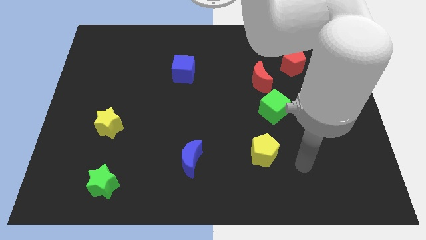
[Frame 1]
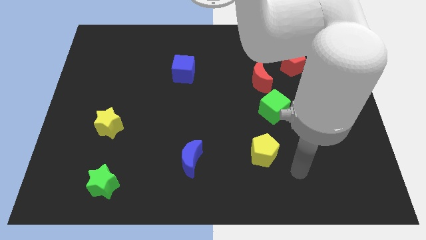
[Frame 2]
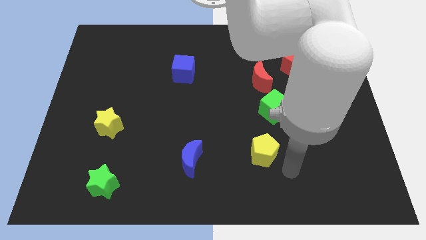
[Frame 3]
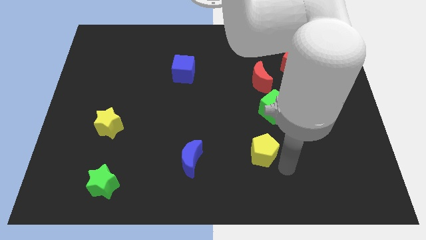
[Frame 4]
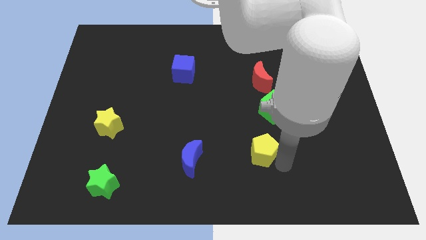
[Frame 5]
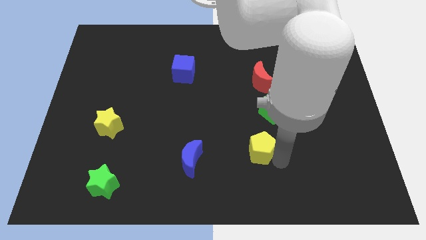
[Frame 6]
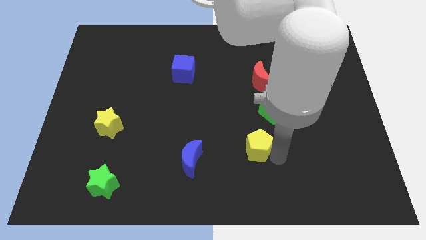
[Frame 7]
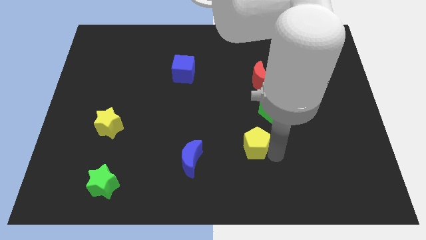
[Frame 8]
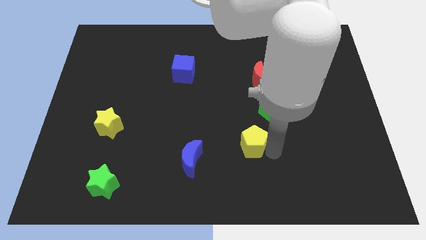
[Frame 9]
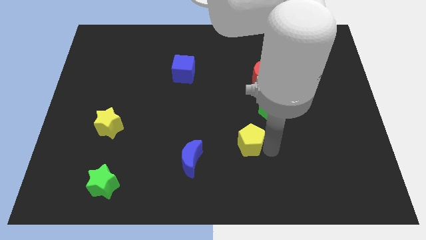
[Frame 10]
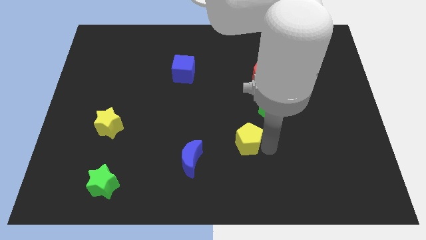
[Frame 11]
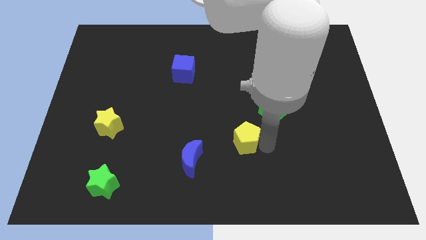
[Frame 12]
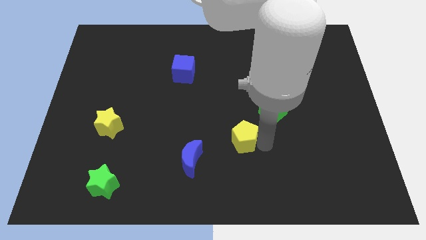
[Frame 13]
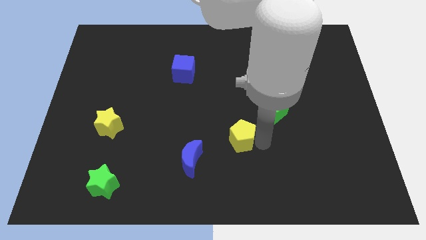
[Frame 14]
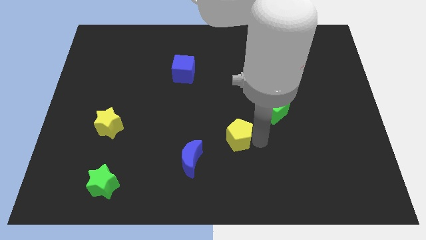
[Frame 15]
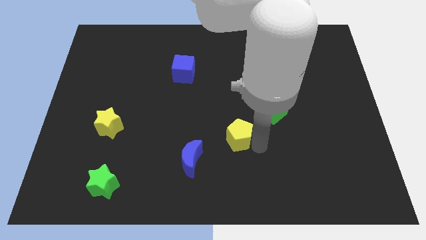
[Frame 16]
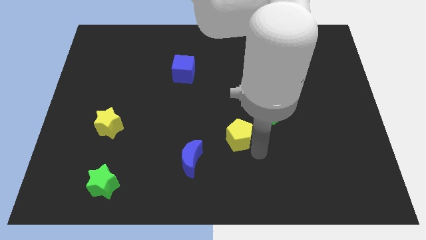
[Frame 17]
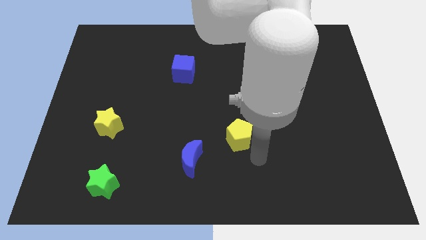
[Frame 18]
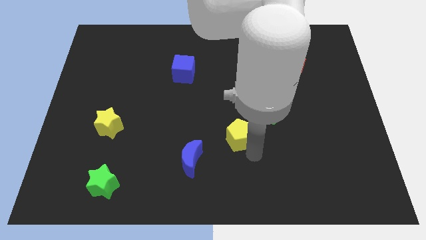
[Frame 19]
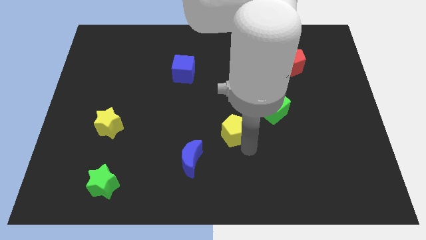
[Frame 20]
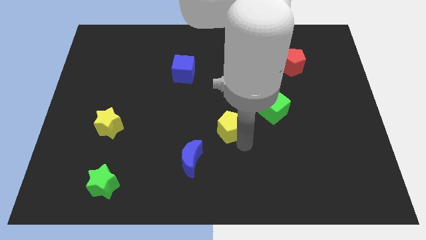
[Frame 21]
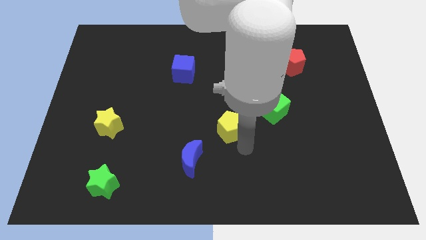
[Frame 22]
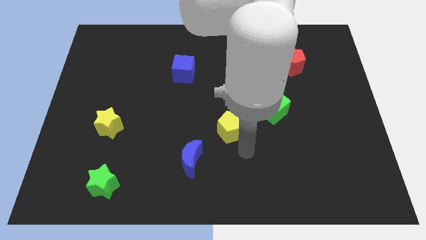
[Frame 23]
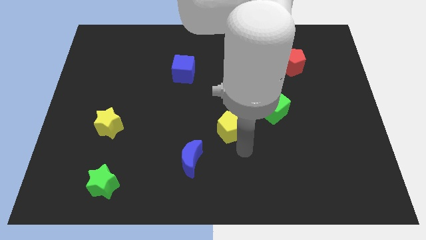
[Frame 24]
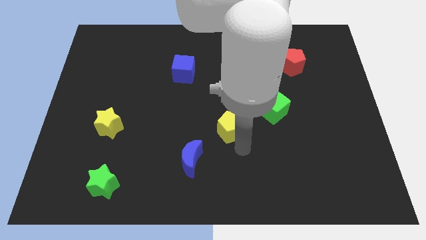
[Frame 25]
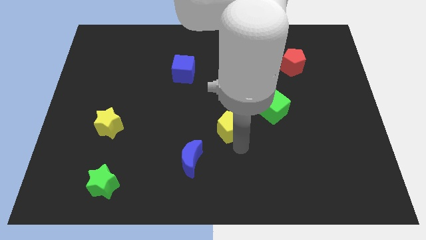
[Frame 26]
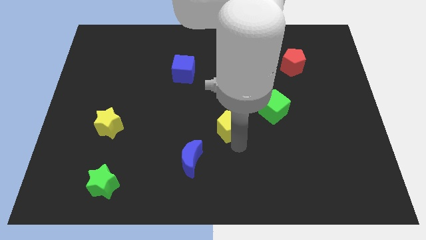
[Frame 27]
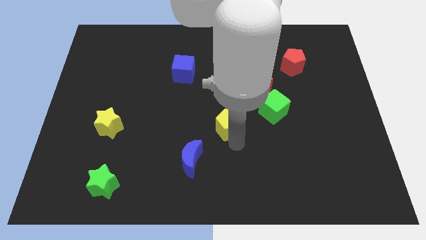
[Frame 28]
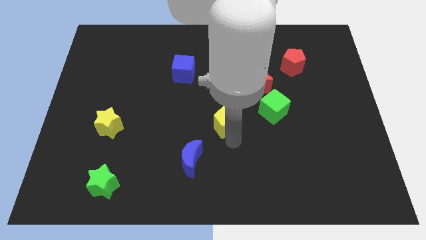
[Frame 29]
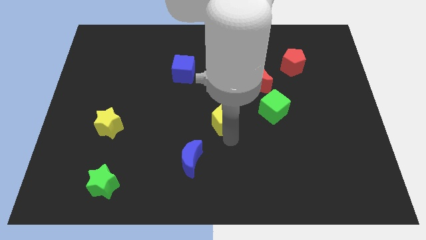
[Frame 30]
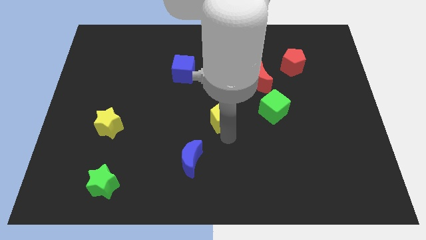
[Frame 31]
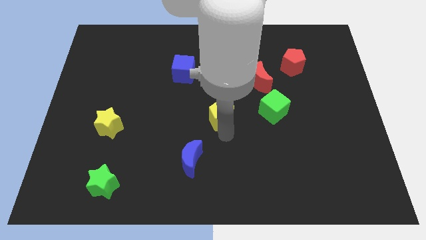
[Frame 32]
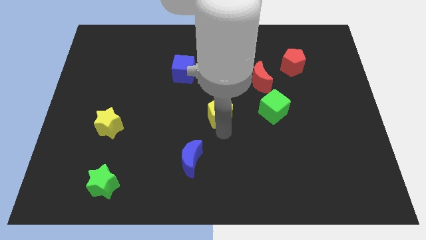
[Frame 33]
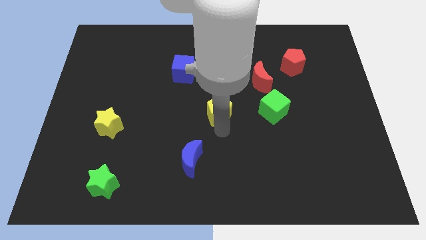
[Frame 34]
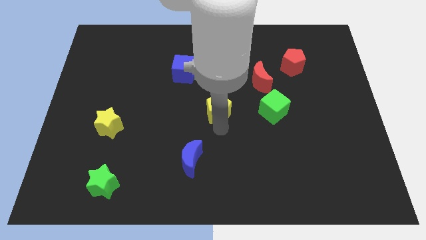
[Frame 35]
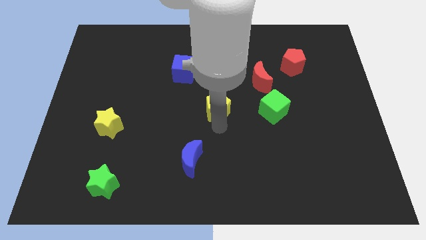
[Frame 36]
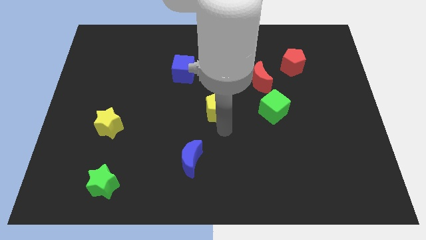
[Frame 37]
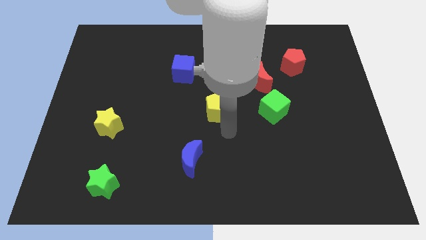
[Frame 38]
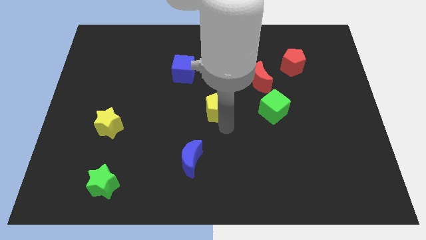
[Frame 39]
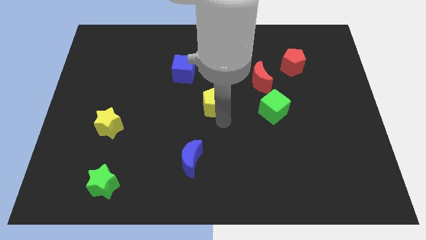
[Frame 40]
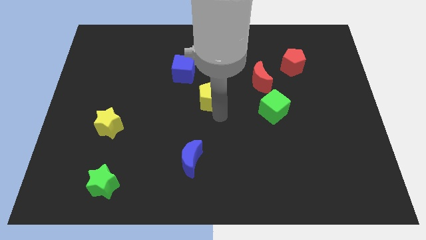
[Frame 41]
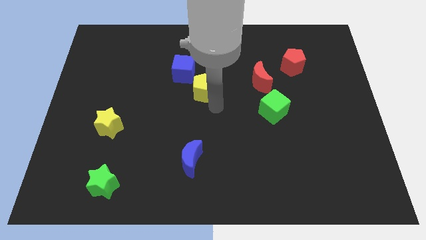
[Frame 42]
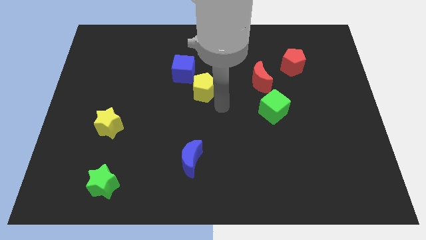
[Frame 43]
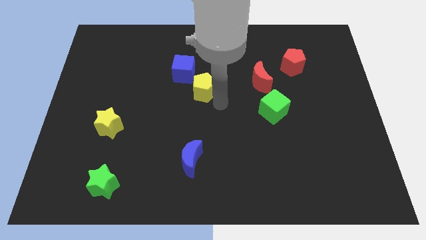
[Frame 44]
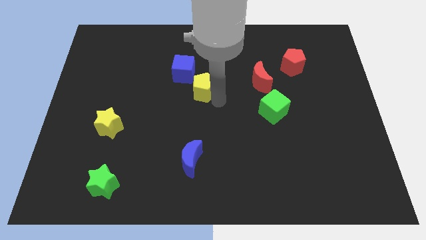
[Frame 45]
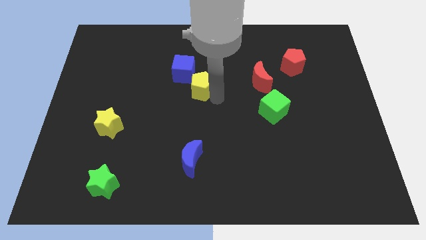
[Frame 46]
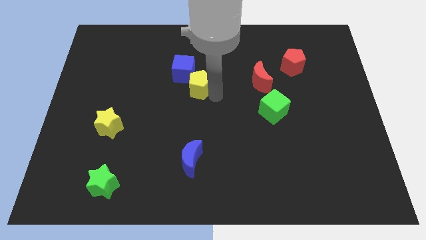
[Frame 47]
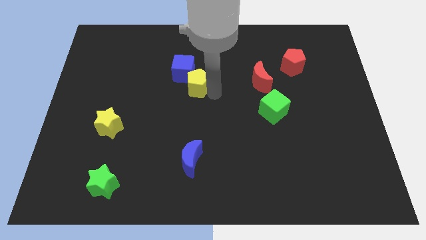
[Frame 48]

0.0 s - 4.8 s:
slide the yellow pentagon close to the blue cube

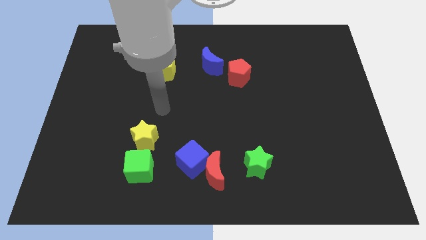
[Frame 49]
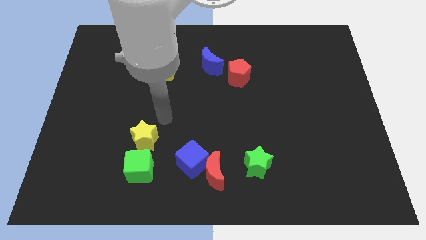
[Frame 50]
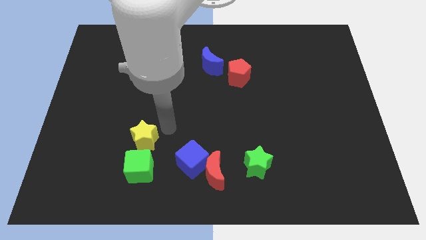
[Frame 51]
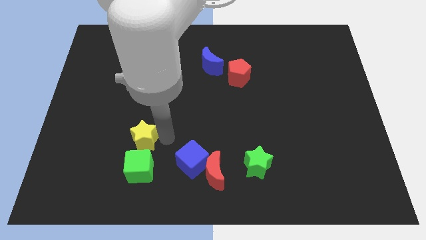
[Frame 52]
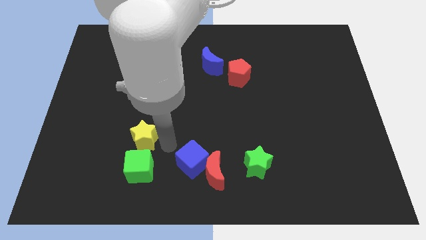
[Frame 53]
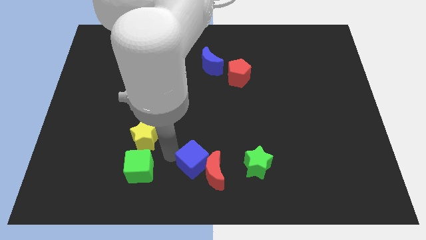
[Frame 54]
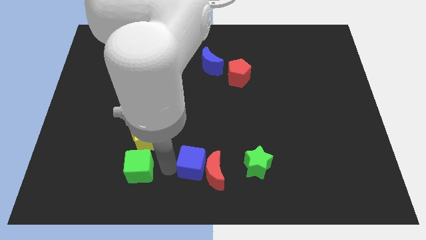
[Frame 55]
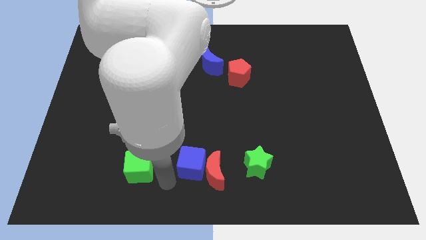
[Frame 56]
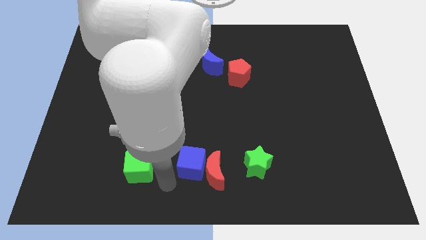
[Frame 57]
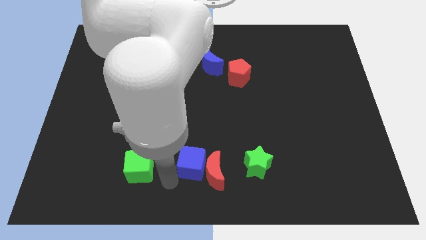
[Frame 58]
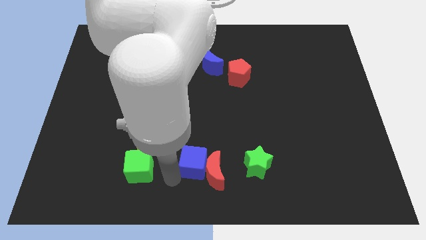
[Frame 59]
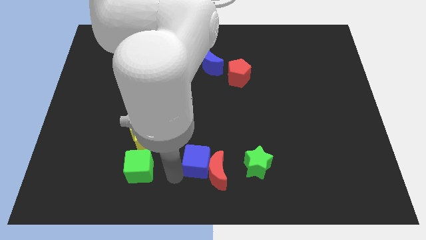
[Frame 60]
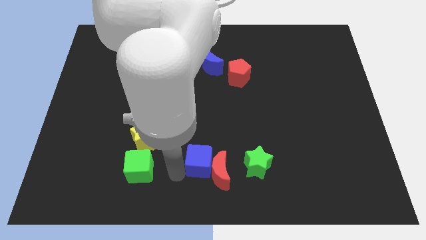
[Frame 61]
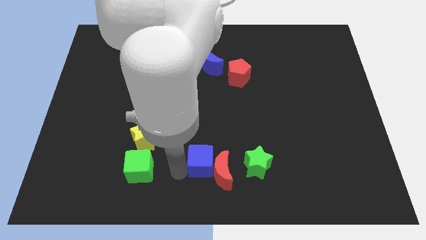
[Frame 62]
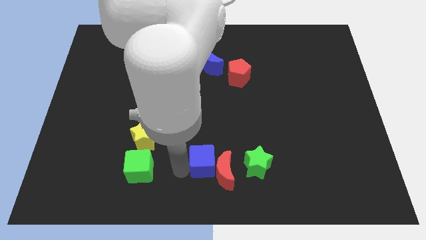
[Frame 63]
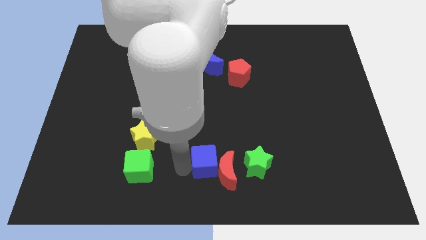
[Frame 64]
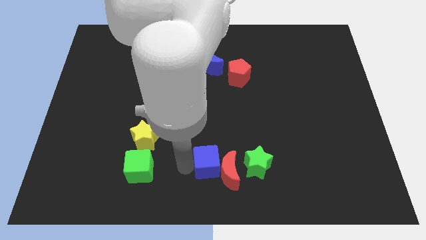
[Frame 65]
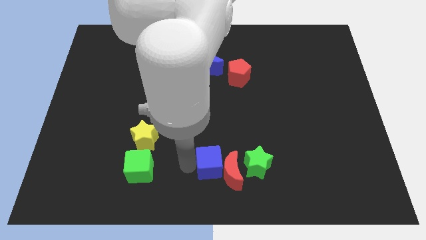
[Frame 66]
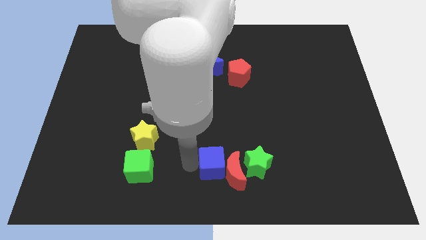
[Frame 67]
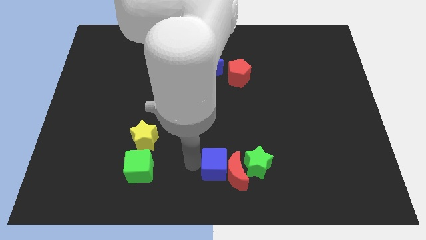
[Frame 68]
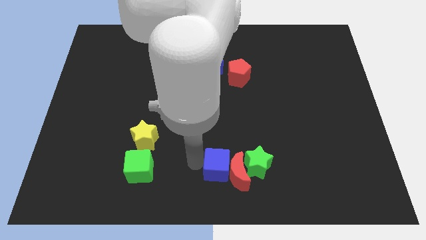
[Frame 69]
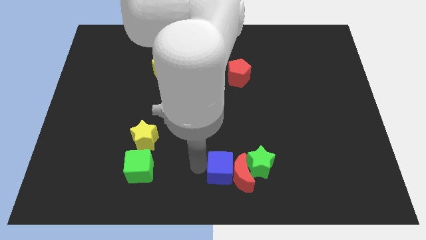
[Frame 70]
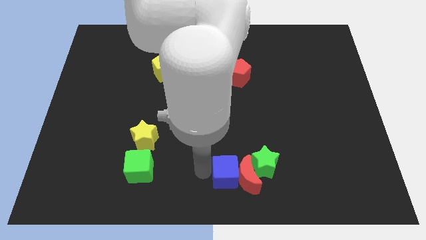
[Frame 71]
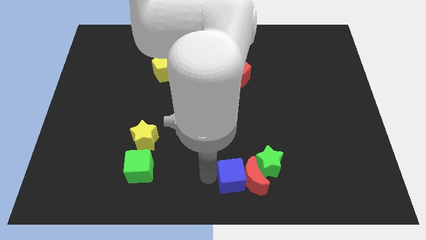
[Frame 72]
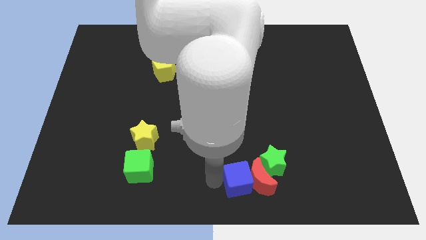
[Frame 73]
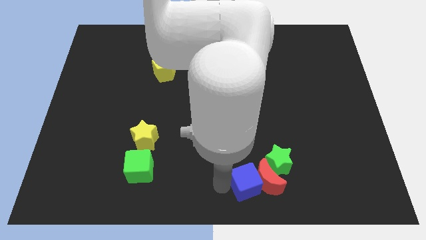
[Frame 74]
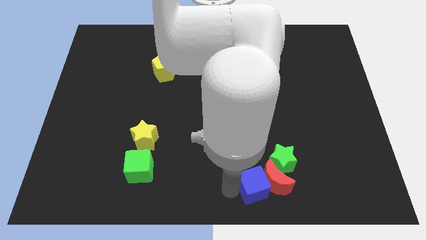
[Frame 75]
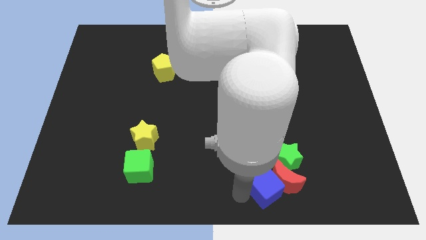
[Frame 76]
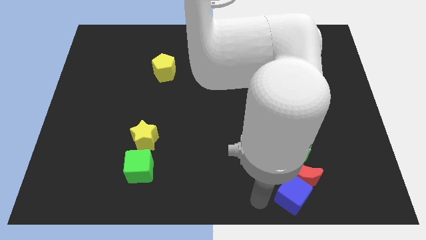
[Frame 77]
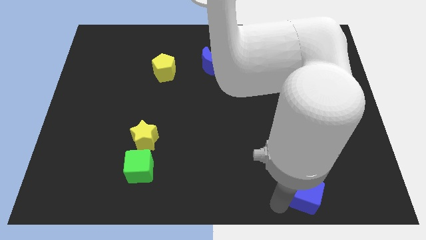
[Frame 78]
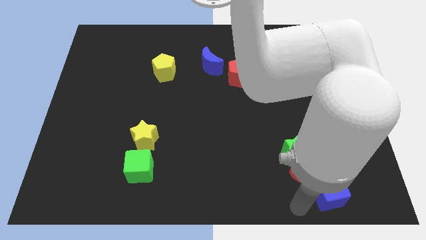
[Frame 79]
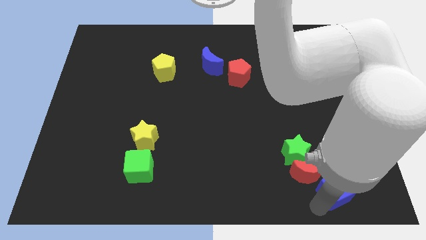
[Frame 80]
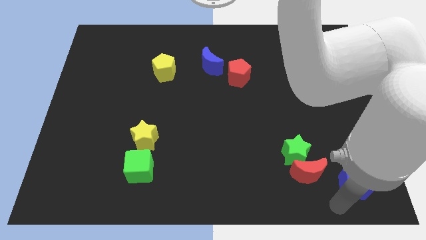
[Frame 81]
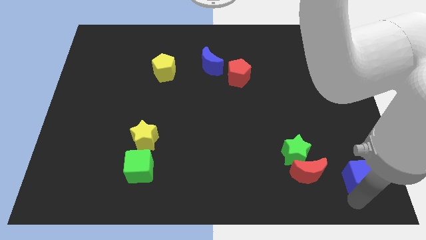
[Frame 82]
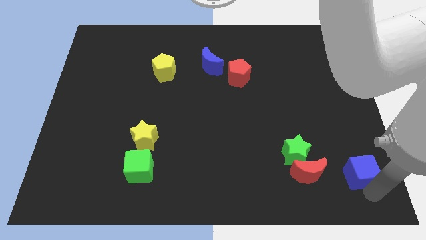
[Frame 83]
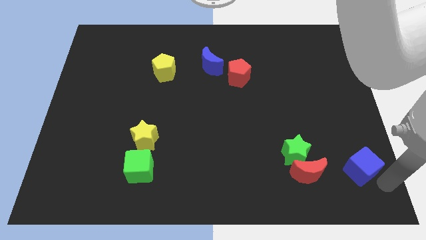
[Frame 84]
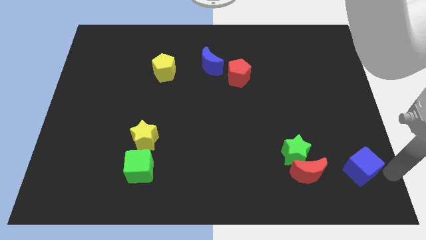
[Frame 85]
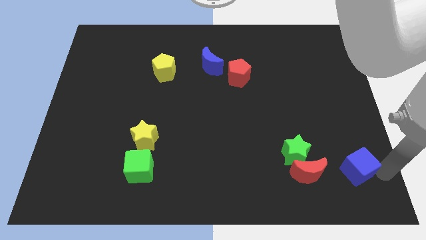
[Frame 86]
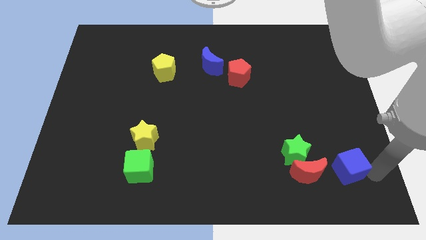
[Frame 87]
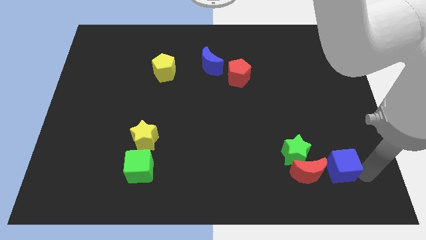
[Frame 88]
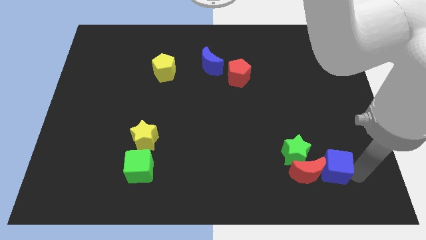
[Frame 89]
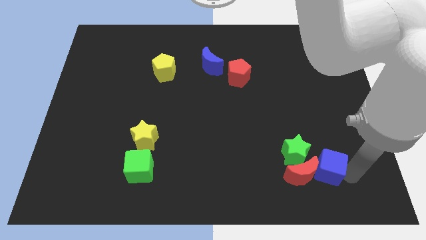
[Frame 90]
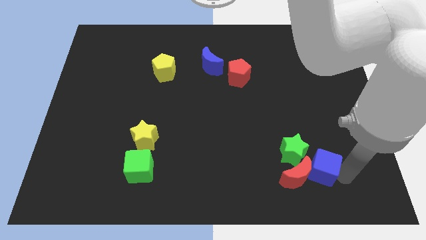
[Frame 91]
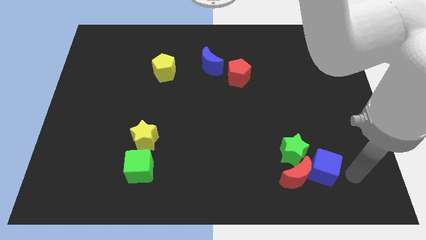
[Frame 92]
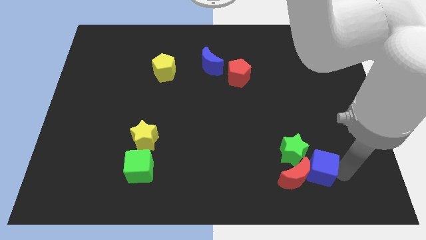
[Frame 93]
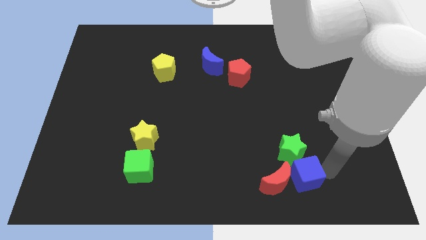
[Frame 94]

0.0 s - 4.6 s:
push the blue cube next to the green star
